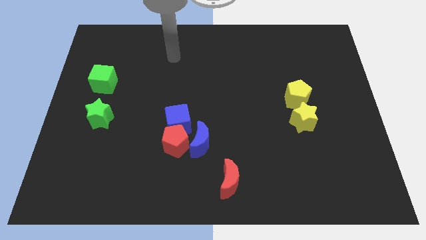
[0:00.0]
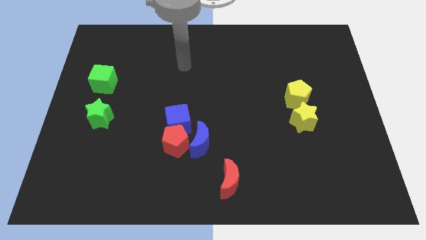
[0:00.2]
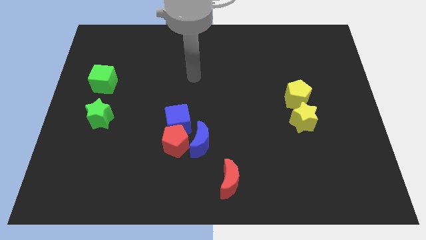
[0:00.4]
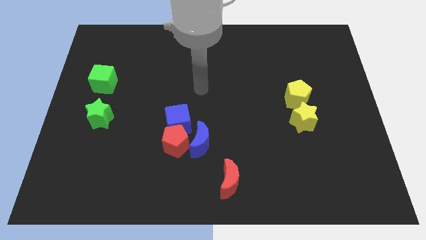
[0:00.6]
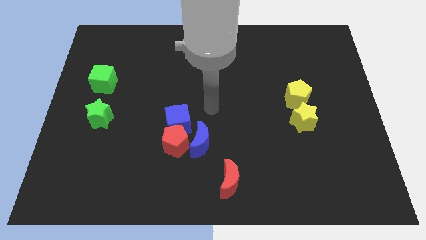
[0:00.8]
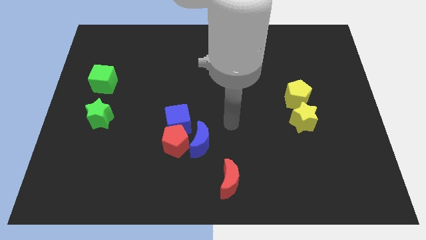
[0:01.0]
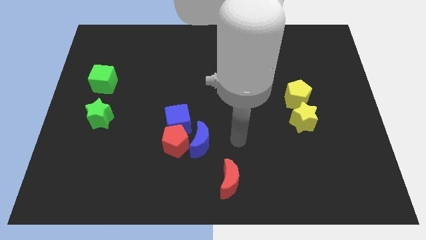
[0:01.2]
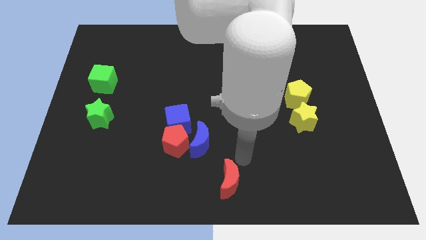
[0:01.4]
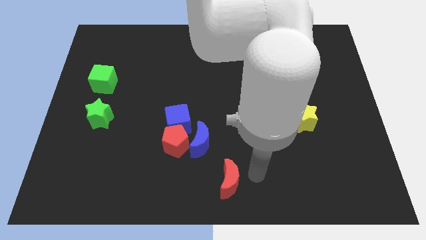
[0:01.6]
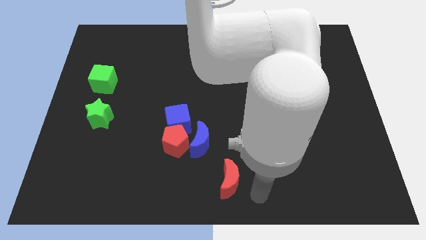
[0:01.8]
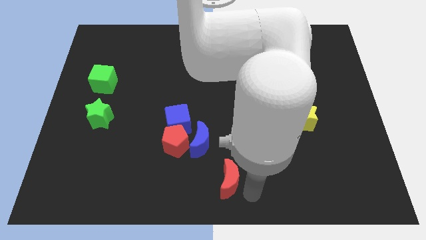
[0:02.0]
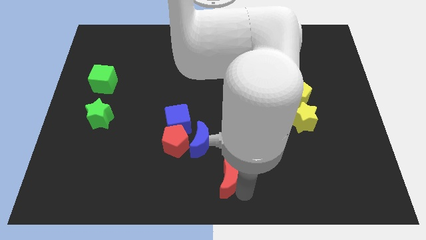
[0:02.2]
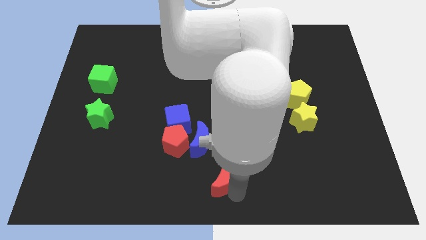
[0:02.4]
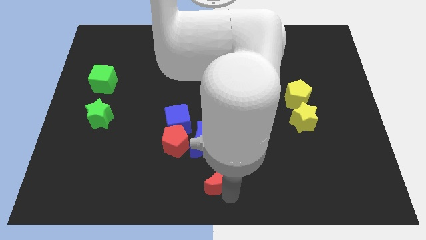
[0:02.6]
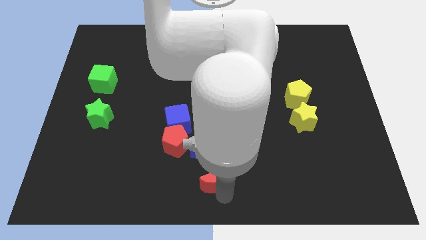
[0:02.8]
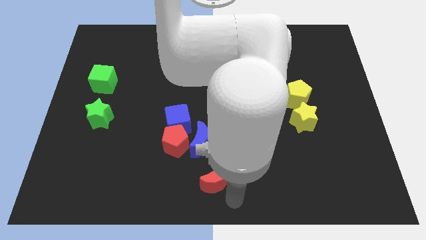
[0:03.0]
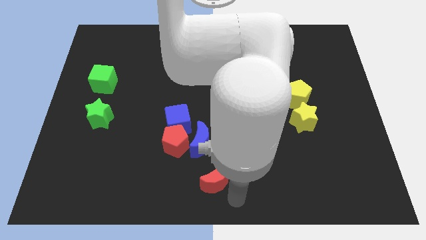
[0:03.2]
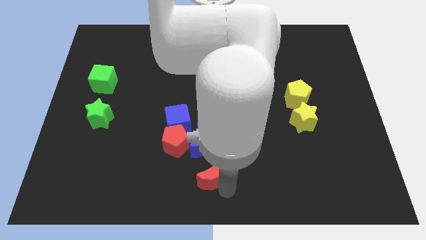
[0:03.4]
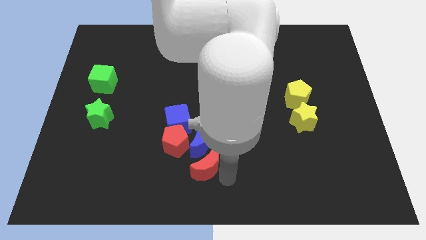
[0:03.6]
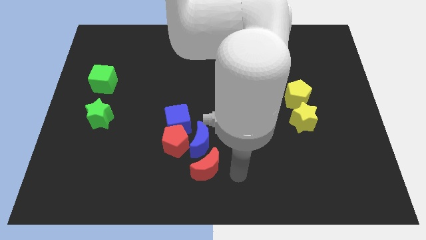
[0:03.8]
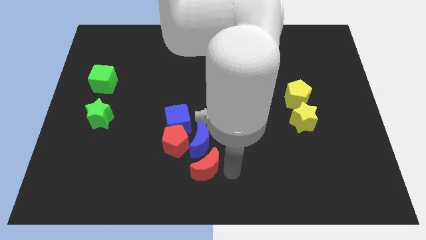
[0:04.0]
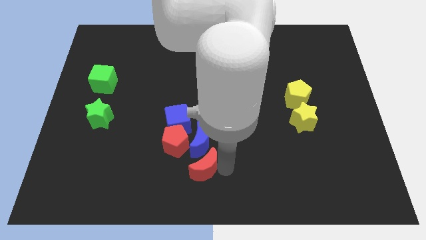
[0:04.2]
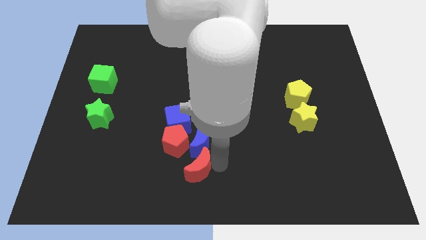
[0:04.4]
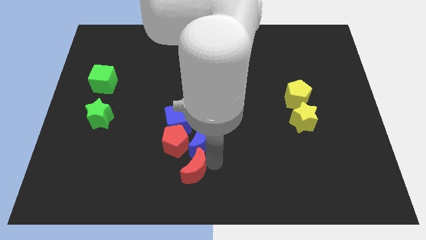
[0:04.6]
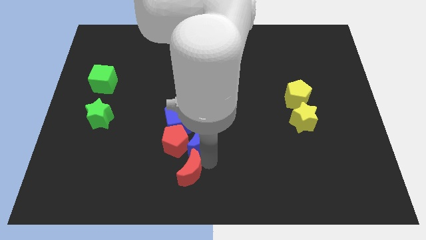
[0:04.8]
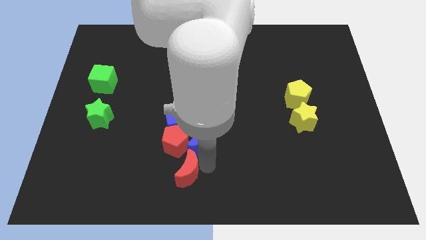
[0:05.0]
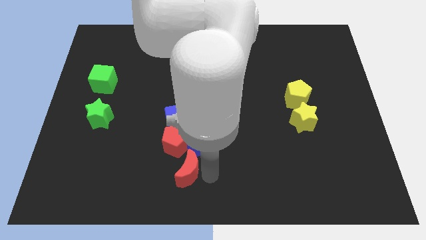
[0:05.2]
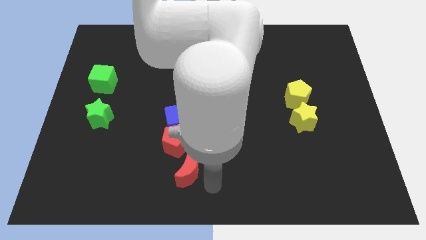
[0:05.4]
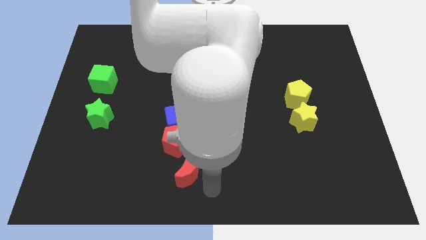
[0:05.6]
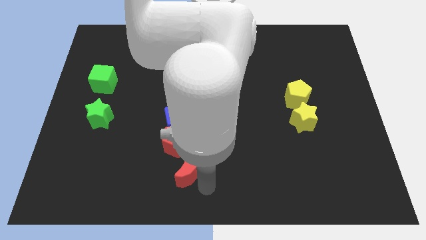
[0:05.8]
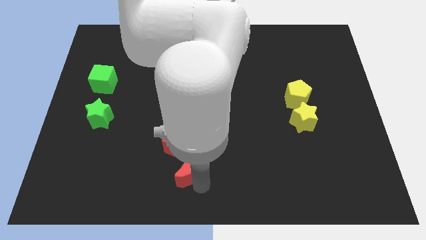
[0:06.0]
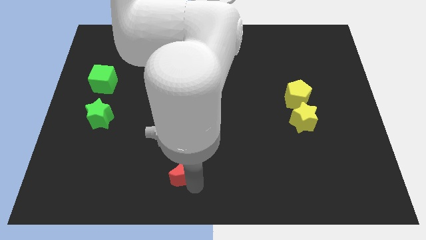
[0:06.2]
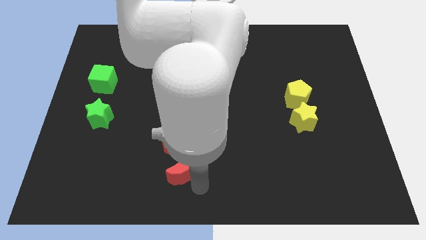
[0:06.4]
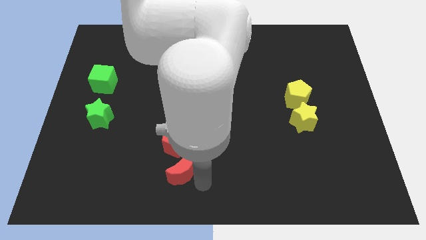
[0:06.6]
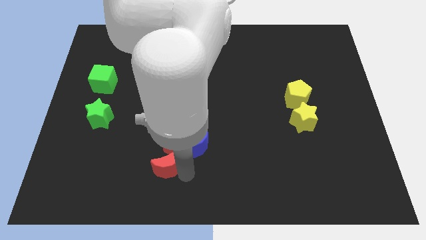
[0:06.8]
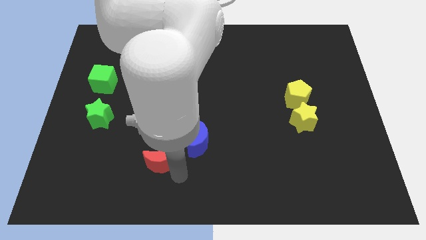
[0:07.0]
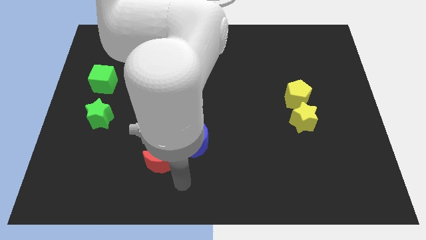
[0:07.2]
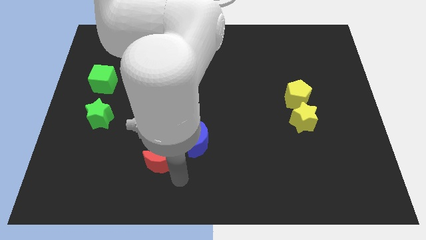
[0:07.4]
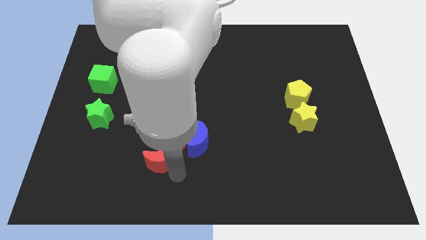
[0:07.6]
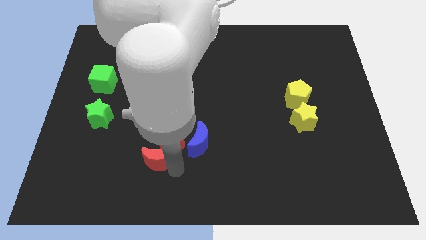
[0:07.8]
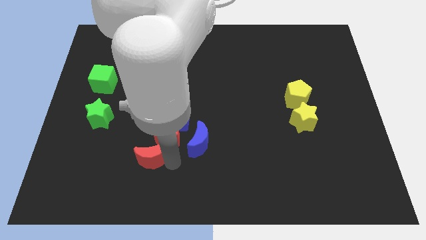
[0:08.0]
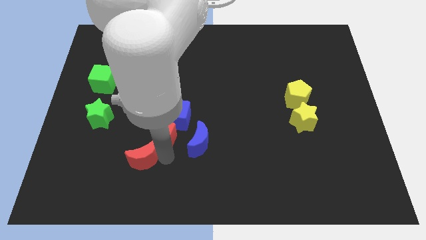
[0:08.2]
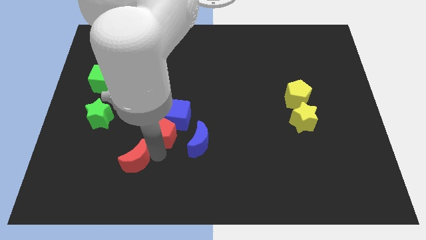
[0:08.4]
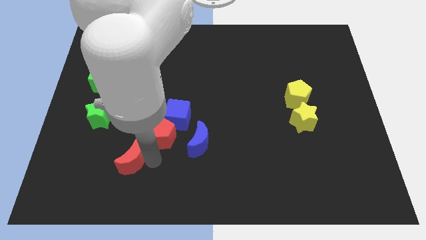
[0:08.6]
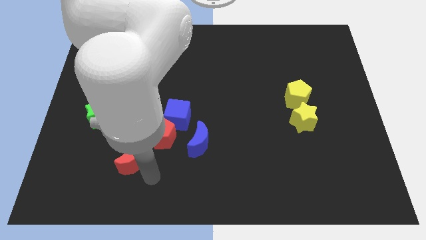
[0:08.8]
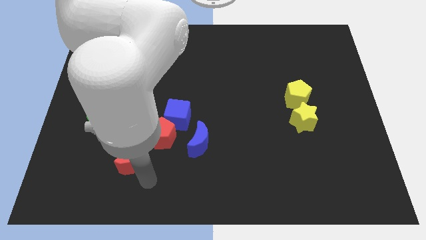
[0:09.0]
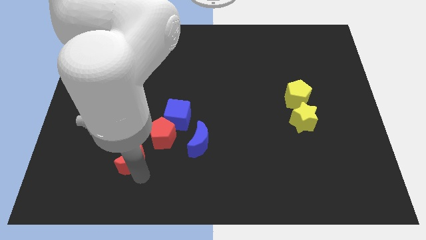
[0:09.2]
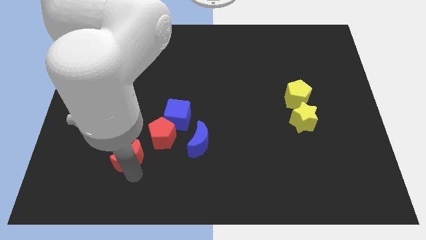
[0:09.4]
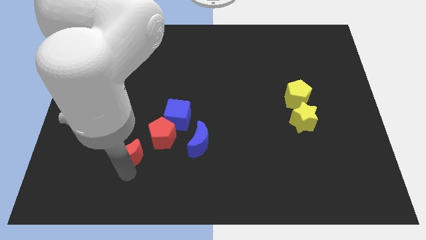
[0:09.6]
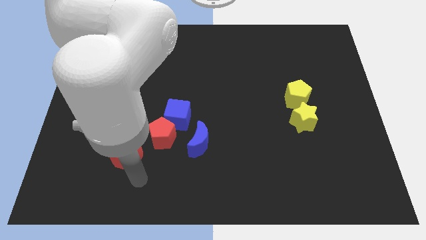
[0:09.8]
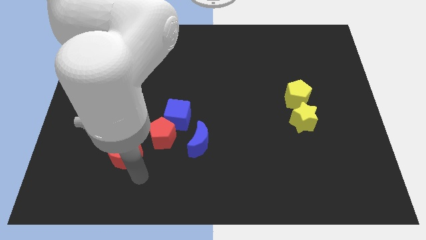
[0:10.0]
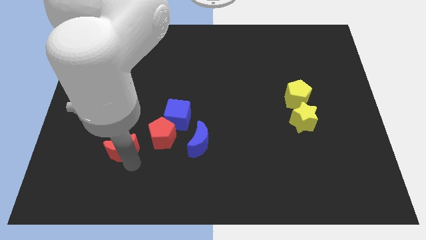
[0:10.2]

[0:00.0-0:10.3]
push the red moon left of the red pentagon
